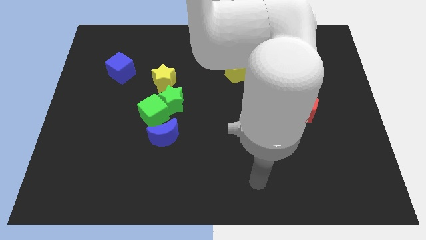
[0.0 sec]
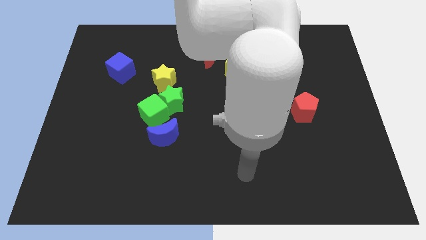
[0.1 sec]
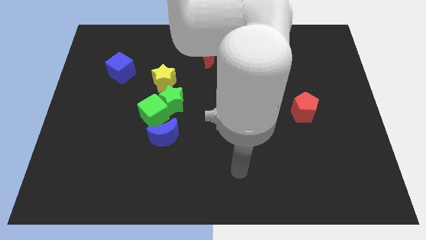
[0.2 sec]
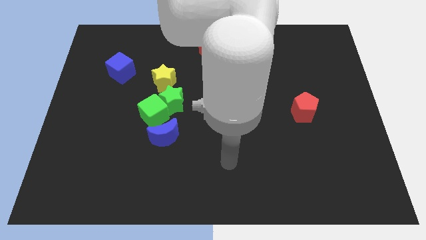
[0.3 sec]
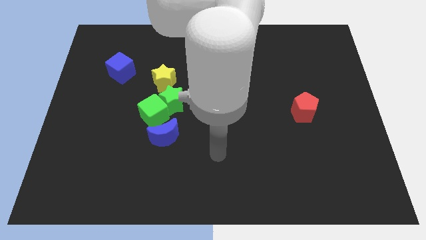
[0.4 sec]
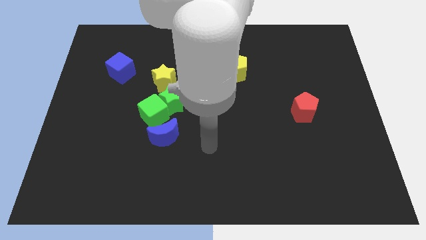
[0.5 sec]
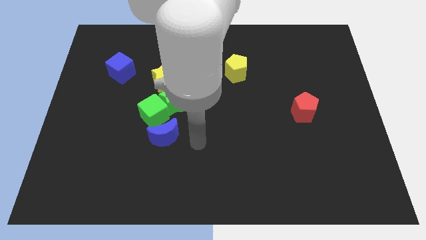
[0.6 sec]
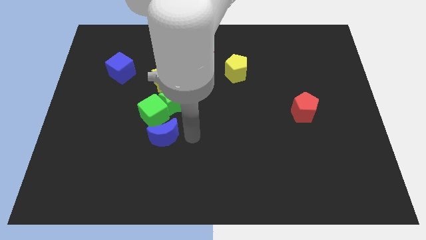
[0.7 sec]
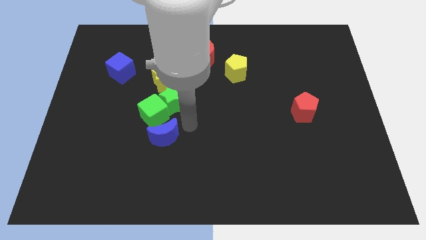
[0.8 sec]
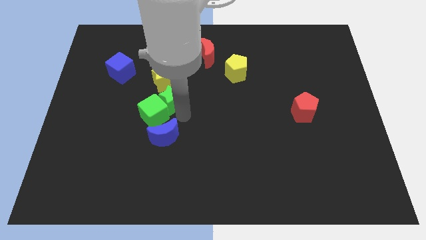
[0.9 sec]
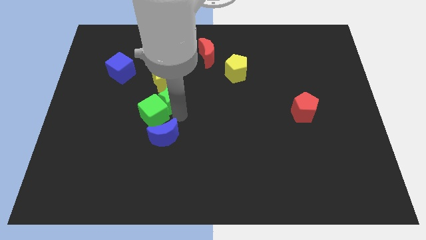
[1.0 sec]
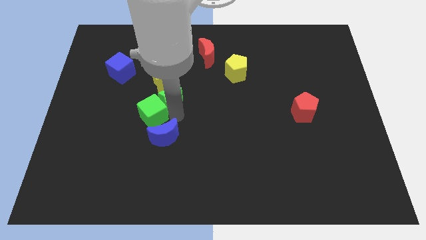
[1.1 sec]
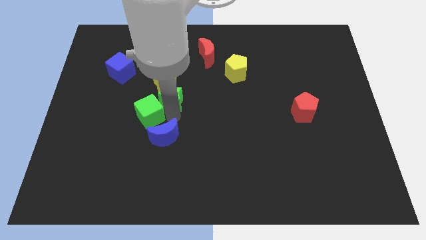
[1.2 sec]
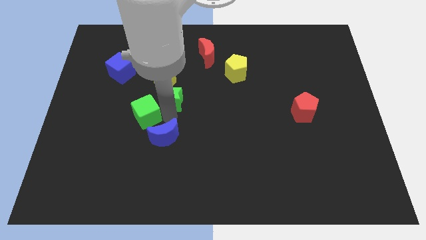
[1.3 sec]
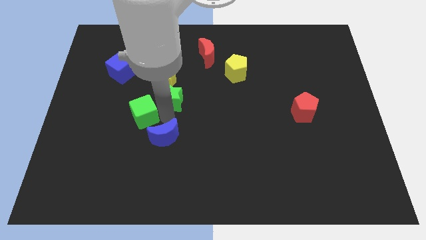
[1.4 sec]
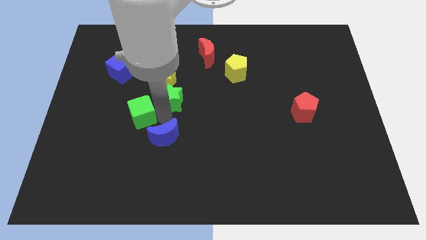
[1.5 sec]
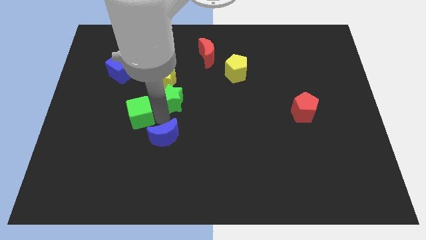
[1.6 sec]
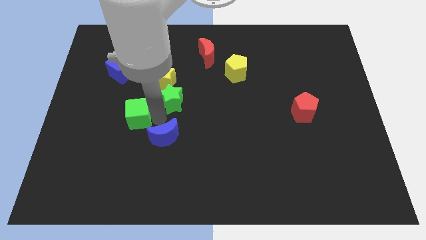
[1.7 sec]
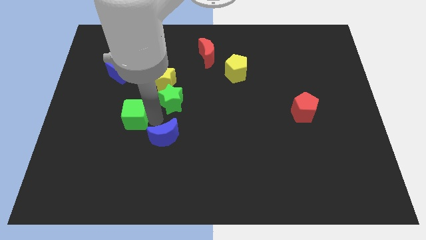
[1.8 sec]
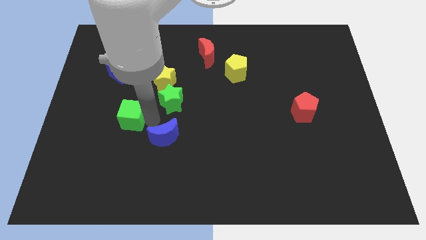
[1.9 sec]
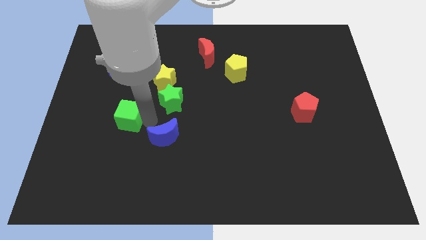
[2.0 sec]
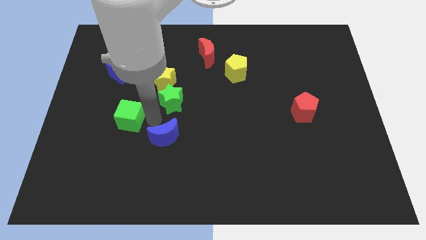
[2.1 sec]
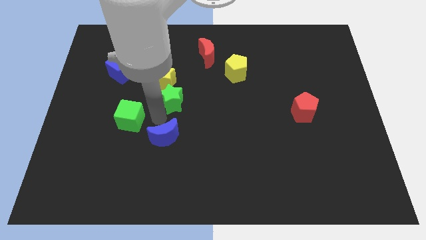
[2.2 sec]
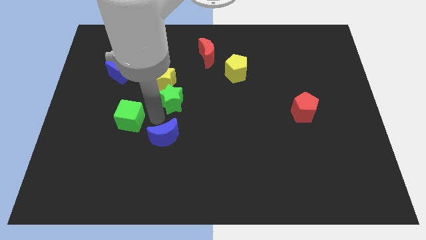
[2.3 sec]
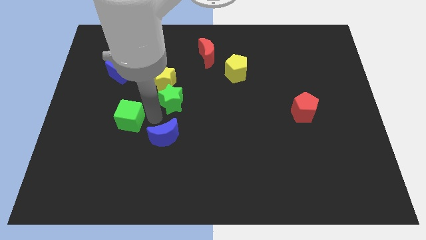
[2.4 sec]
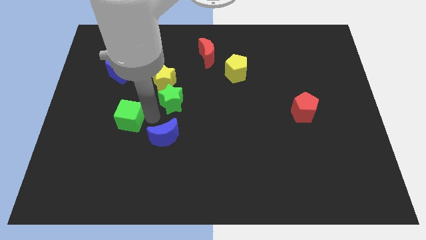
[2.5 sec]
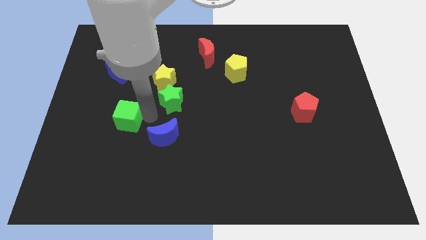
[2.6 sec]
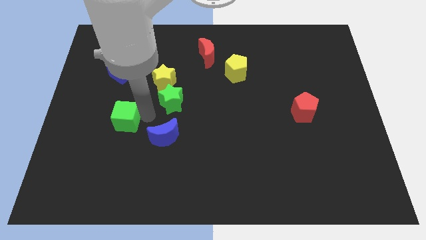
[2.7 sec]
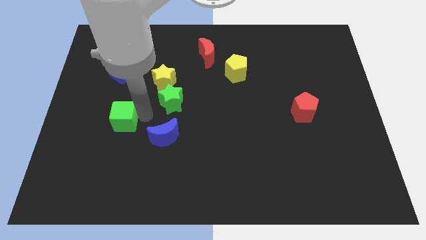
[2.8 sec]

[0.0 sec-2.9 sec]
move the green cube away from the green star and blue moon

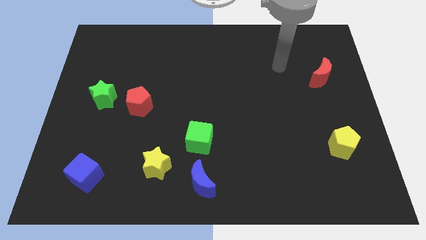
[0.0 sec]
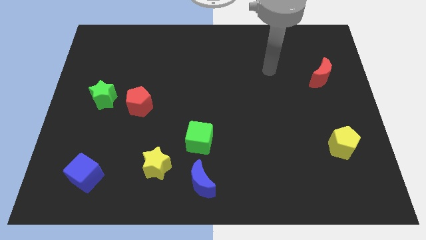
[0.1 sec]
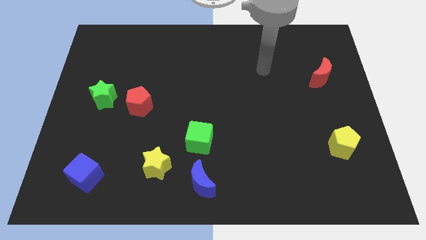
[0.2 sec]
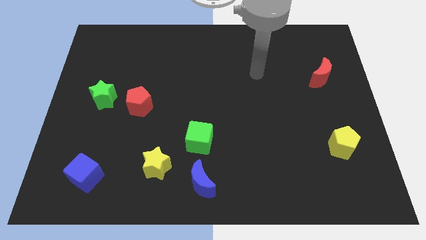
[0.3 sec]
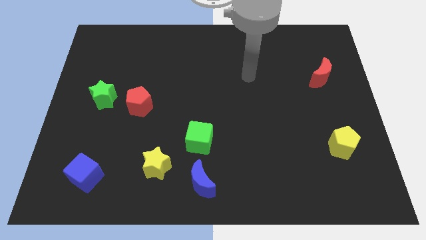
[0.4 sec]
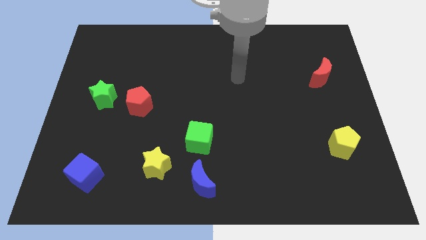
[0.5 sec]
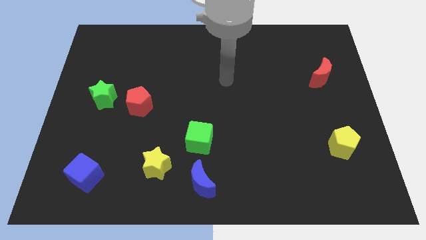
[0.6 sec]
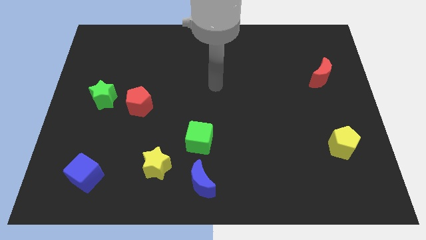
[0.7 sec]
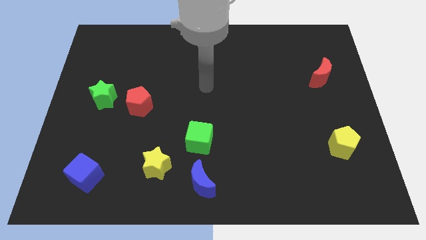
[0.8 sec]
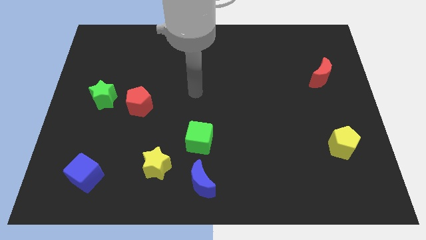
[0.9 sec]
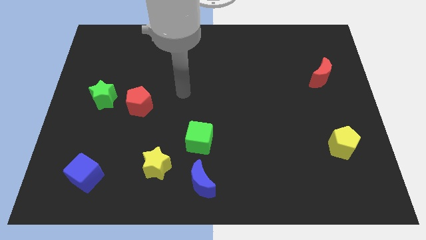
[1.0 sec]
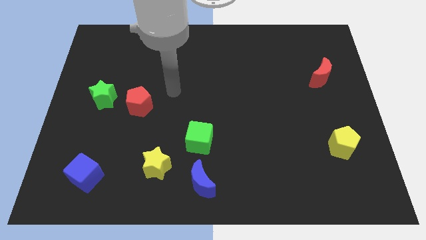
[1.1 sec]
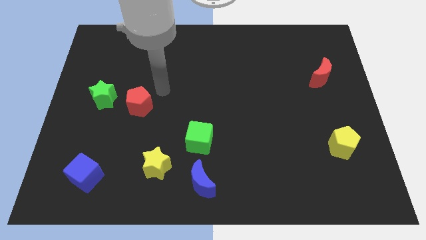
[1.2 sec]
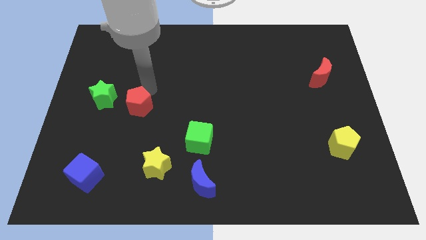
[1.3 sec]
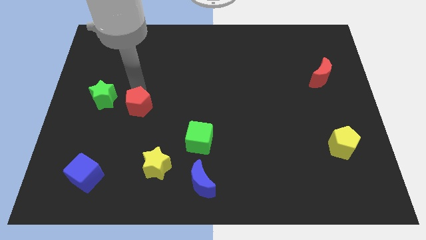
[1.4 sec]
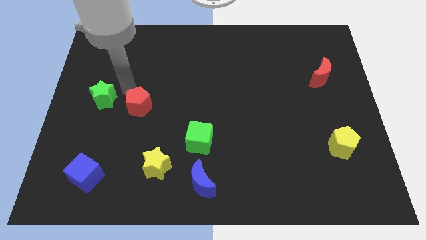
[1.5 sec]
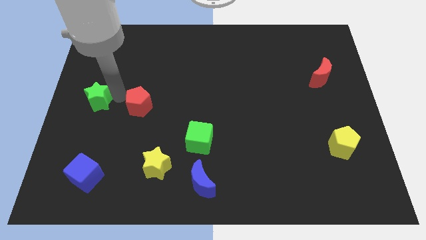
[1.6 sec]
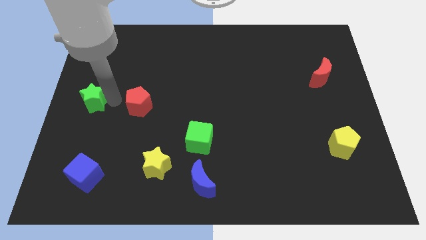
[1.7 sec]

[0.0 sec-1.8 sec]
pull the red pentagon apart from the green star

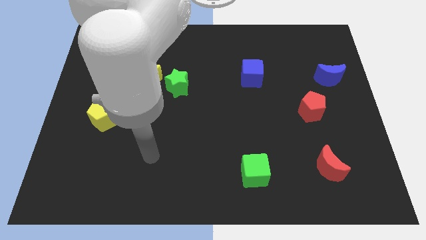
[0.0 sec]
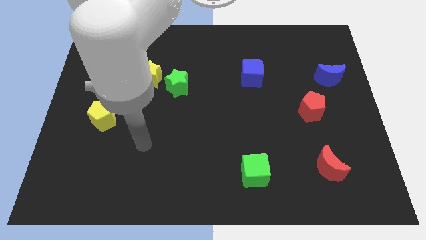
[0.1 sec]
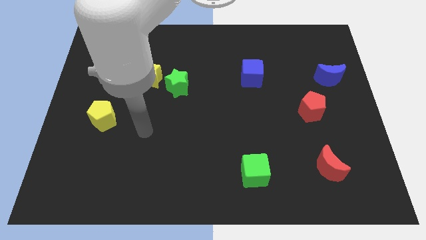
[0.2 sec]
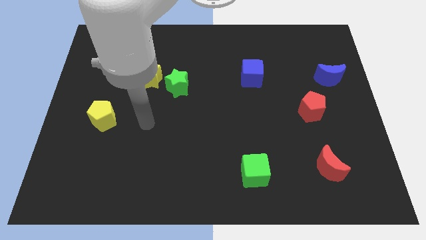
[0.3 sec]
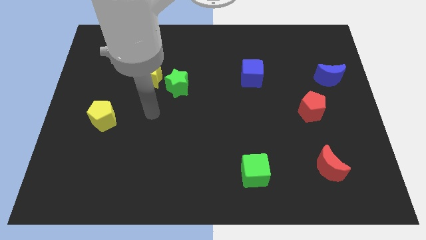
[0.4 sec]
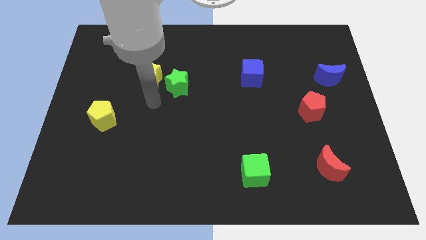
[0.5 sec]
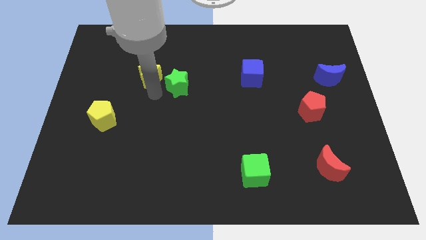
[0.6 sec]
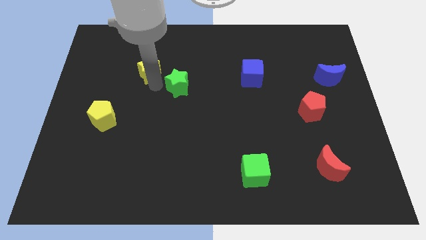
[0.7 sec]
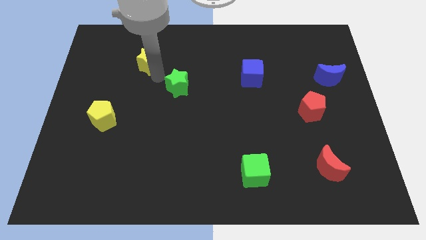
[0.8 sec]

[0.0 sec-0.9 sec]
pull the green star apart from the yellow star

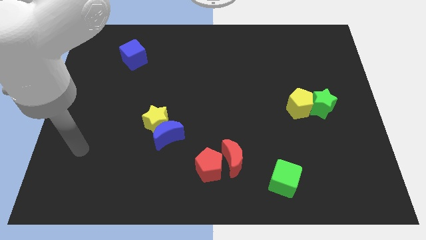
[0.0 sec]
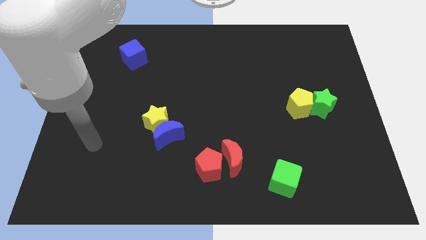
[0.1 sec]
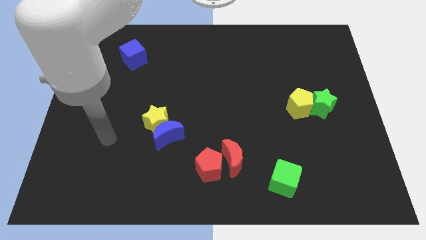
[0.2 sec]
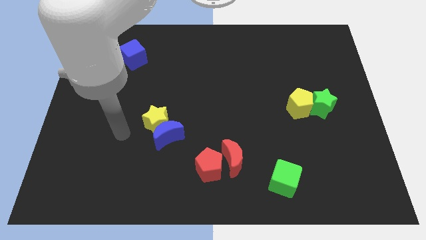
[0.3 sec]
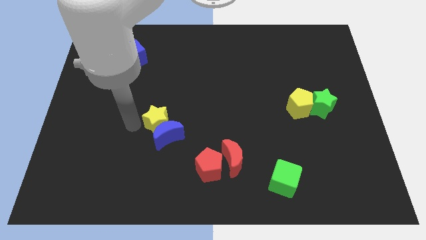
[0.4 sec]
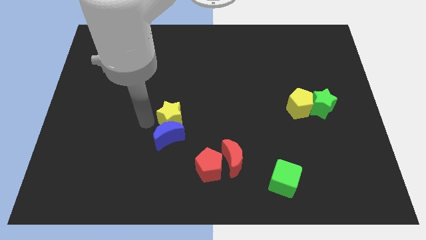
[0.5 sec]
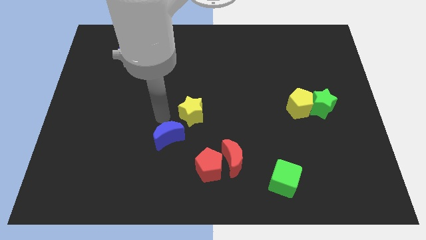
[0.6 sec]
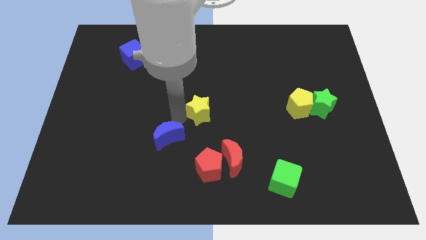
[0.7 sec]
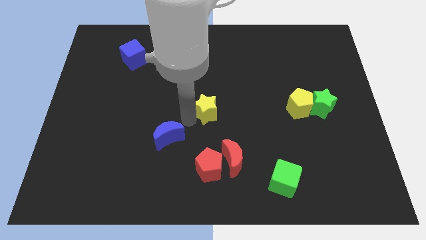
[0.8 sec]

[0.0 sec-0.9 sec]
separate the blue moon from the yellow star

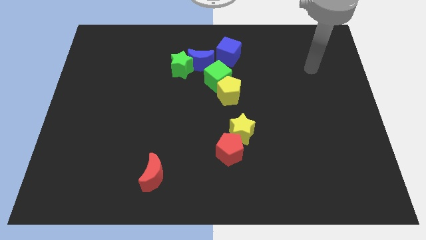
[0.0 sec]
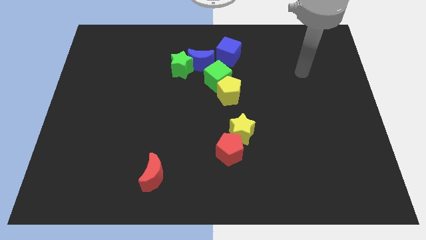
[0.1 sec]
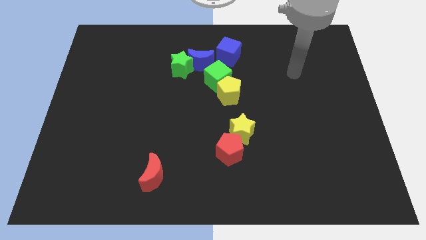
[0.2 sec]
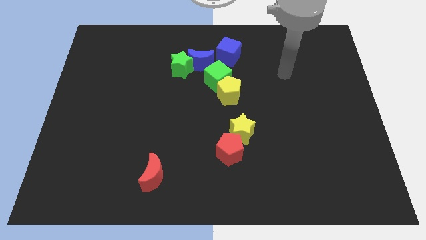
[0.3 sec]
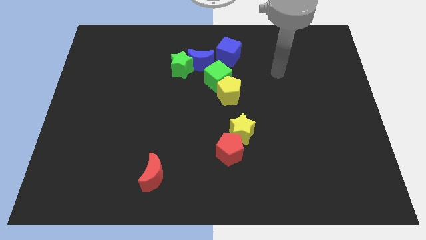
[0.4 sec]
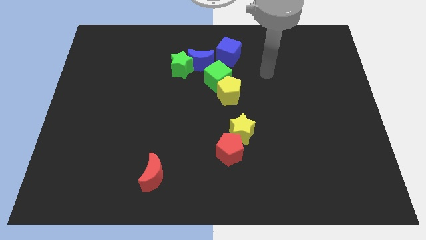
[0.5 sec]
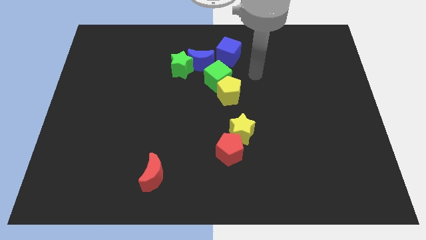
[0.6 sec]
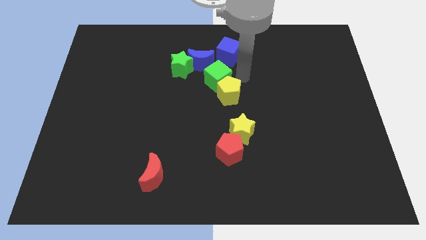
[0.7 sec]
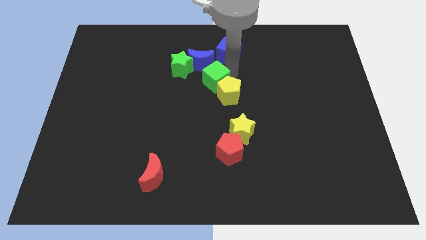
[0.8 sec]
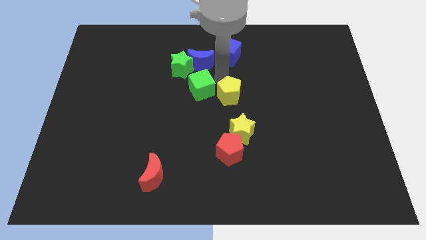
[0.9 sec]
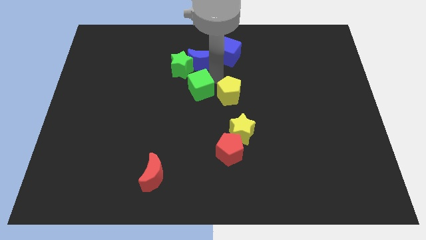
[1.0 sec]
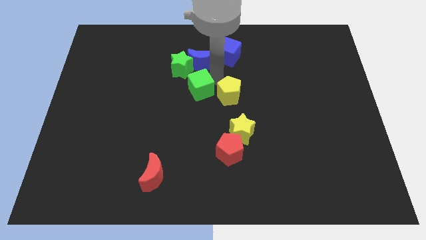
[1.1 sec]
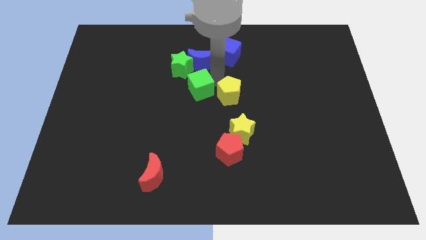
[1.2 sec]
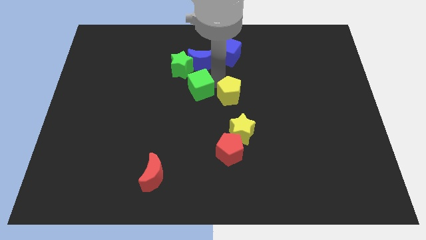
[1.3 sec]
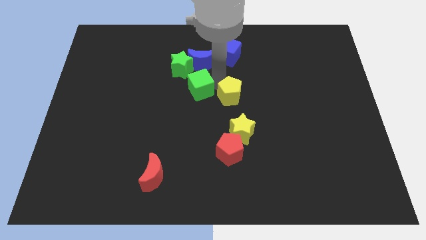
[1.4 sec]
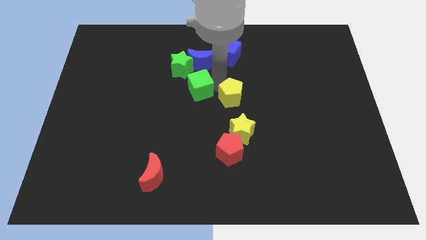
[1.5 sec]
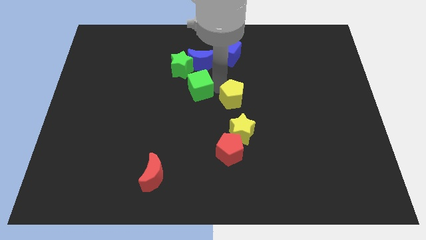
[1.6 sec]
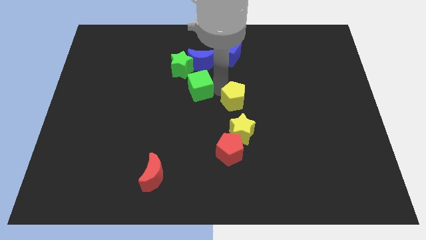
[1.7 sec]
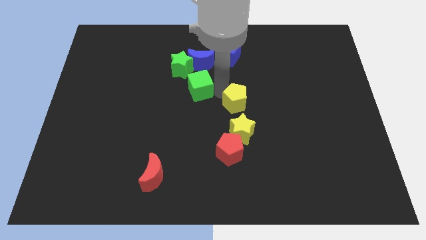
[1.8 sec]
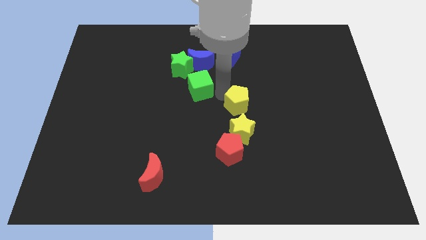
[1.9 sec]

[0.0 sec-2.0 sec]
pull the yellow pentagon apart from the green cube

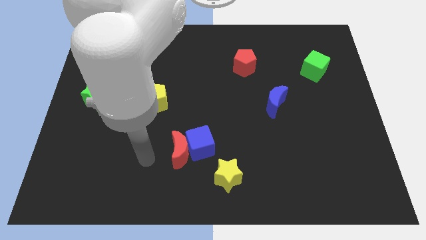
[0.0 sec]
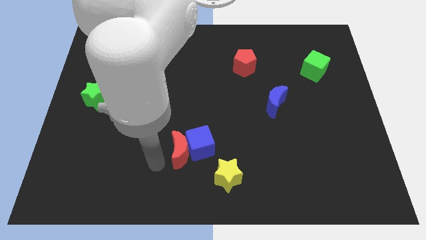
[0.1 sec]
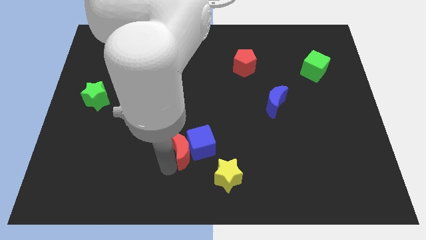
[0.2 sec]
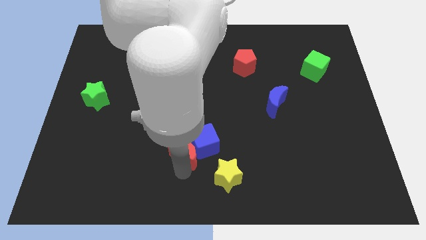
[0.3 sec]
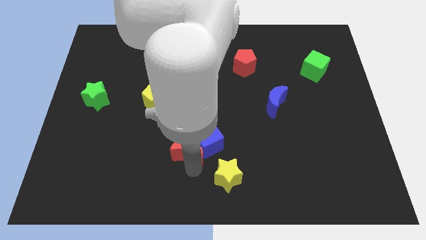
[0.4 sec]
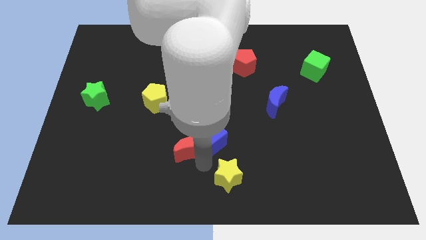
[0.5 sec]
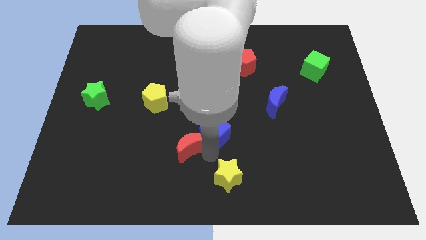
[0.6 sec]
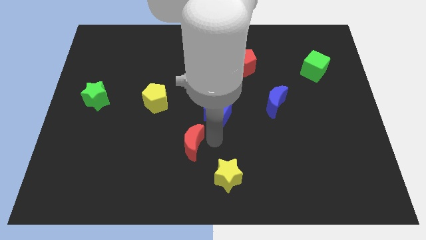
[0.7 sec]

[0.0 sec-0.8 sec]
separate the red moon from the blue cube
